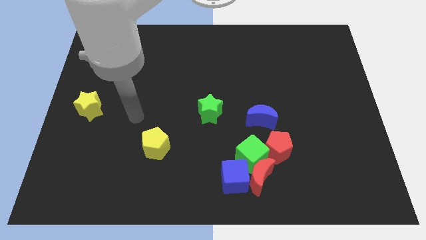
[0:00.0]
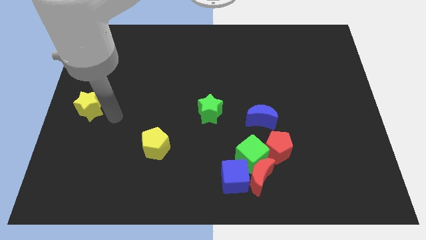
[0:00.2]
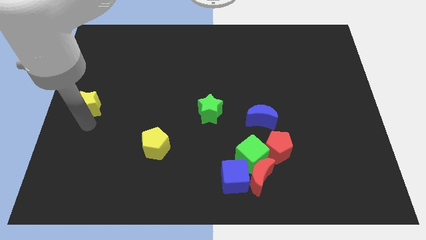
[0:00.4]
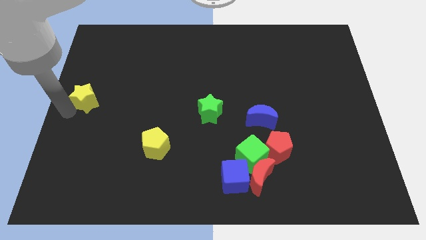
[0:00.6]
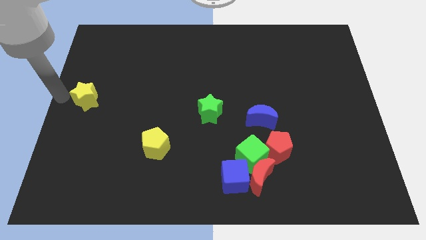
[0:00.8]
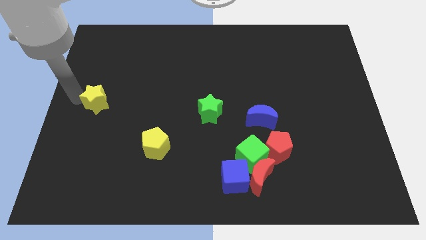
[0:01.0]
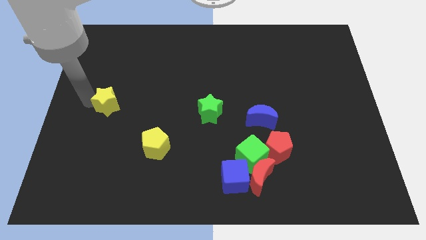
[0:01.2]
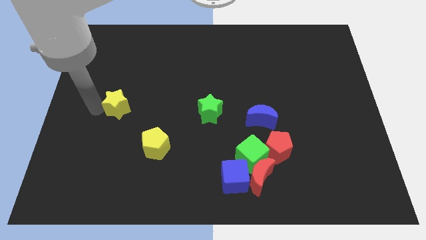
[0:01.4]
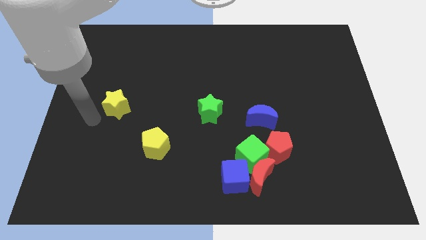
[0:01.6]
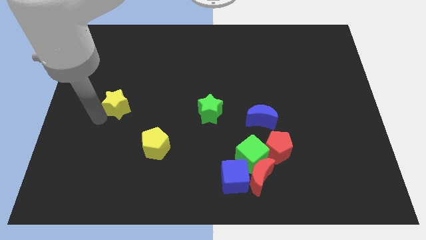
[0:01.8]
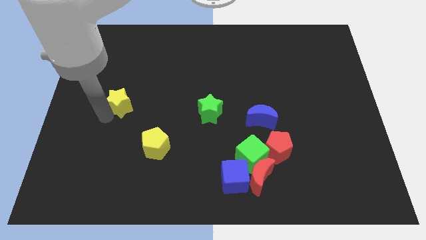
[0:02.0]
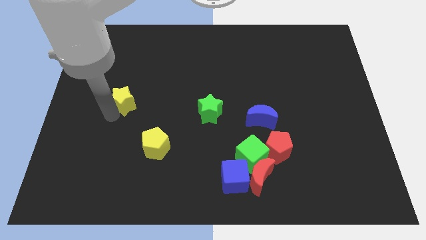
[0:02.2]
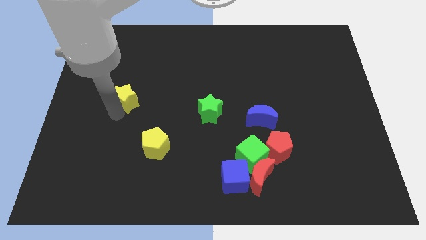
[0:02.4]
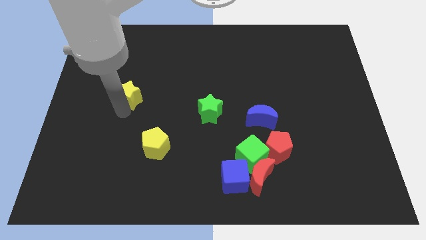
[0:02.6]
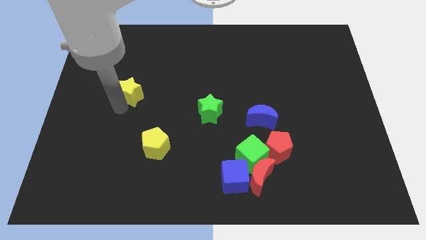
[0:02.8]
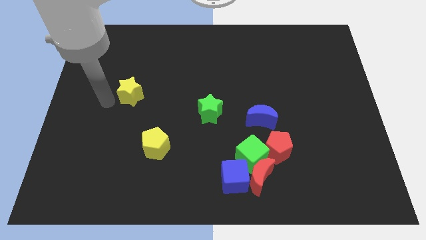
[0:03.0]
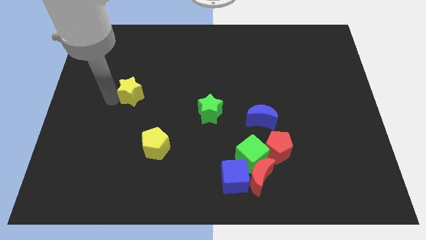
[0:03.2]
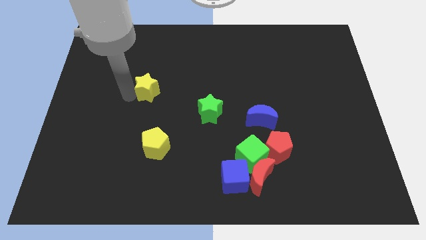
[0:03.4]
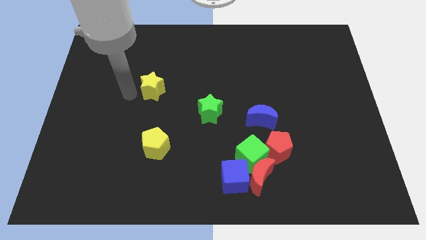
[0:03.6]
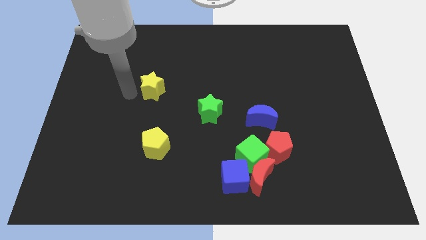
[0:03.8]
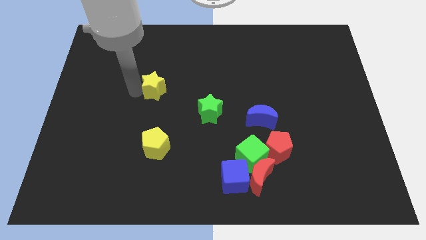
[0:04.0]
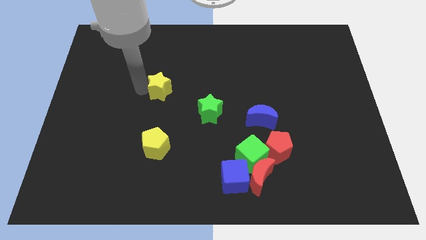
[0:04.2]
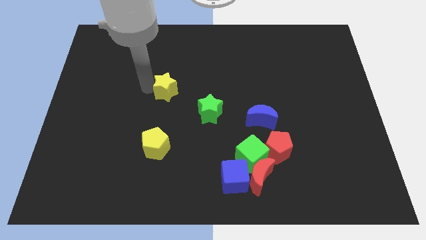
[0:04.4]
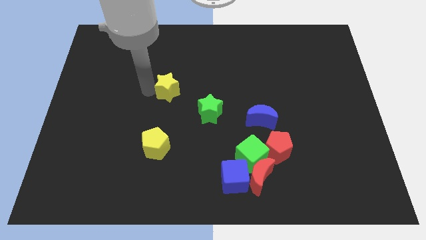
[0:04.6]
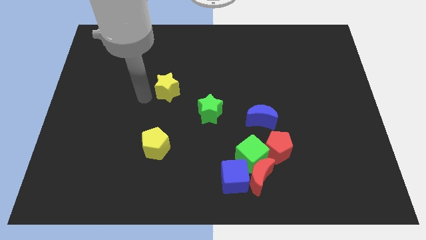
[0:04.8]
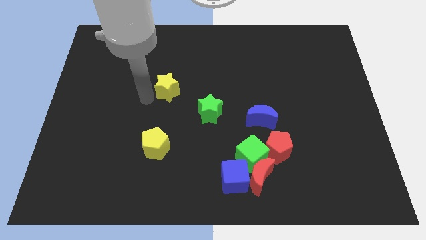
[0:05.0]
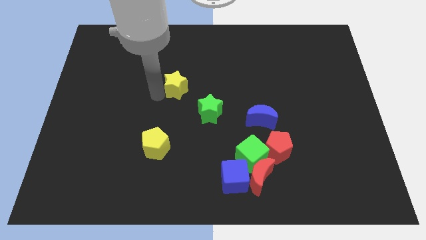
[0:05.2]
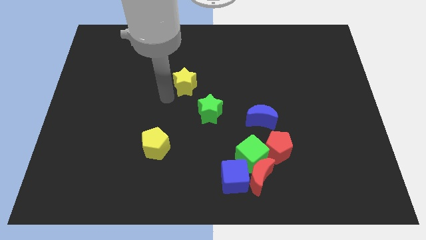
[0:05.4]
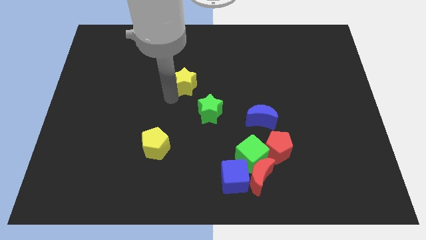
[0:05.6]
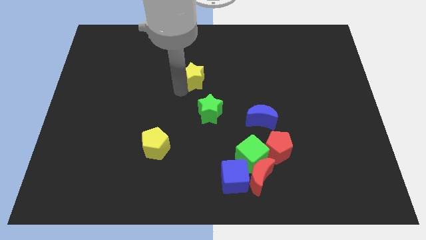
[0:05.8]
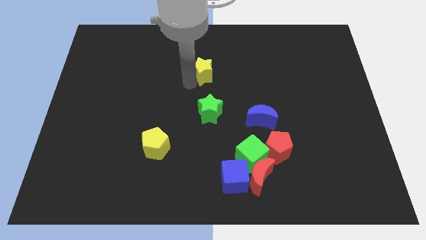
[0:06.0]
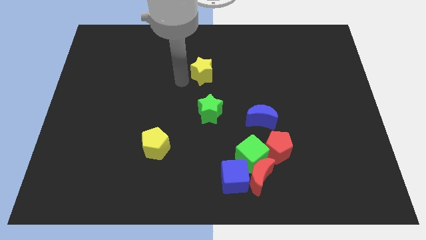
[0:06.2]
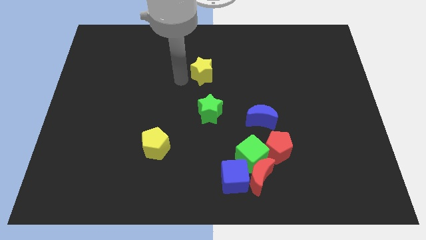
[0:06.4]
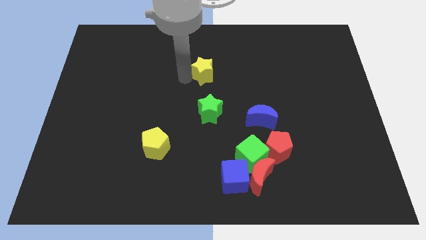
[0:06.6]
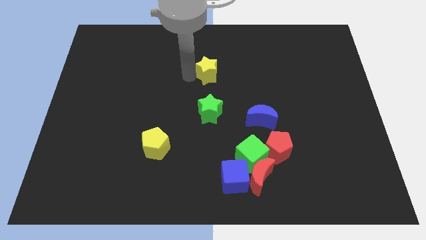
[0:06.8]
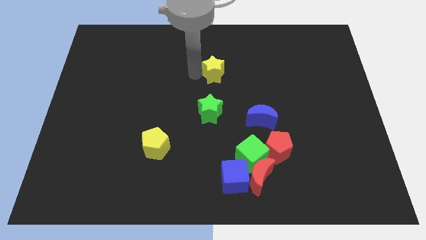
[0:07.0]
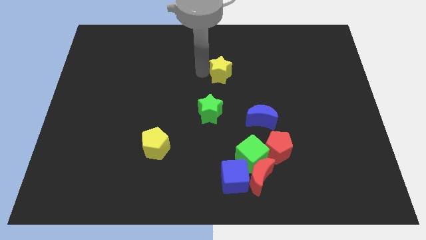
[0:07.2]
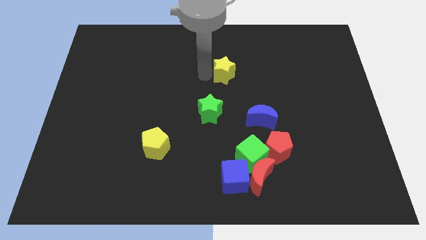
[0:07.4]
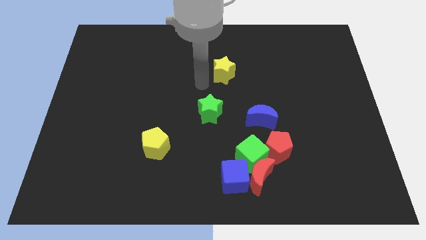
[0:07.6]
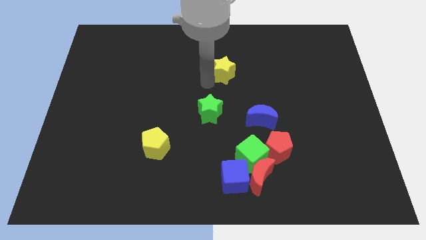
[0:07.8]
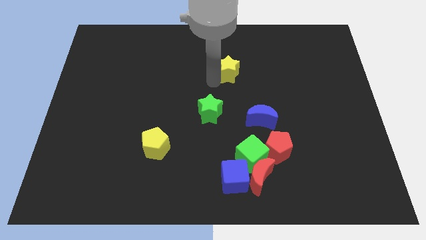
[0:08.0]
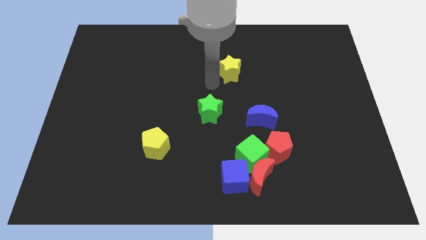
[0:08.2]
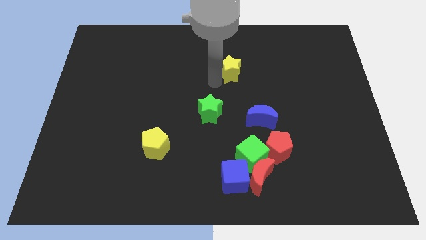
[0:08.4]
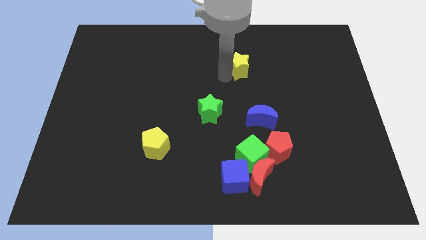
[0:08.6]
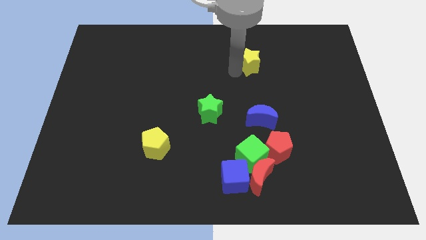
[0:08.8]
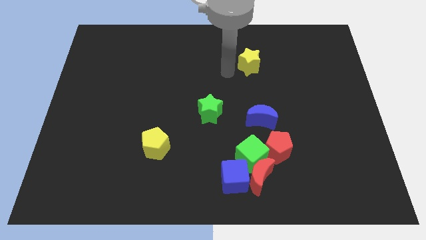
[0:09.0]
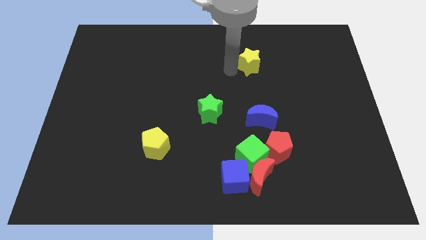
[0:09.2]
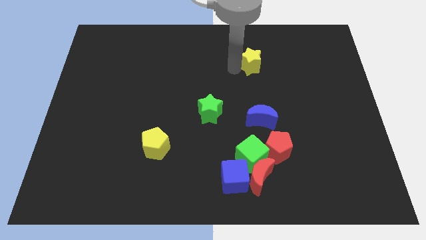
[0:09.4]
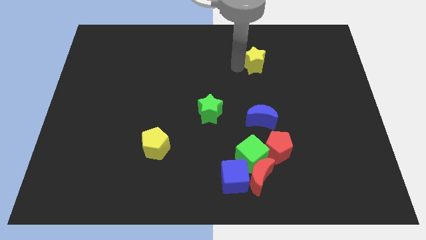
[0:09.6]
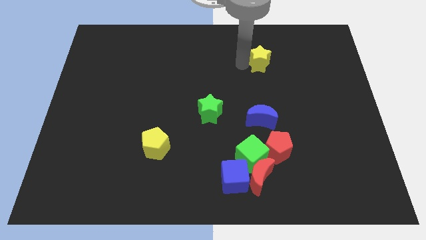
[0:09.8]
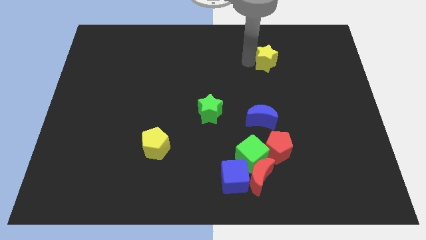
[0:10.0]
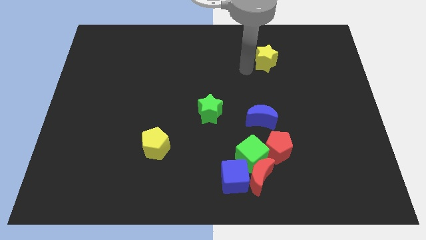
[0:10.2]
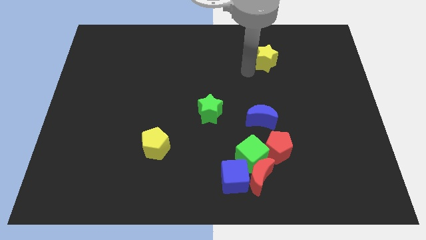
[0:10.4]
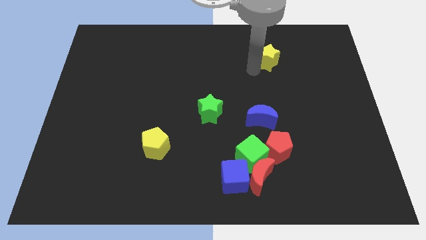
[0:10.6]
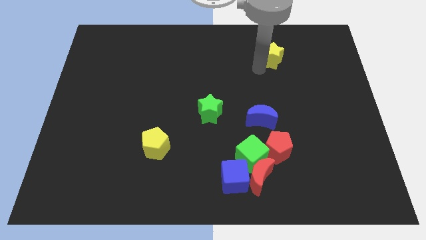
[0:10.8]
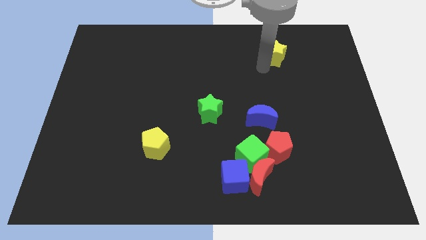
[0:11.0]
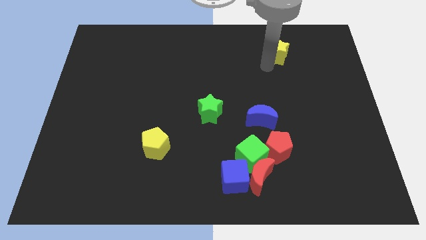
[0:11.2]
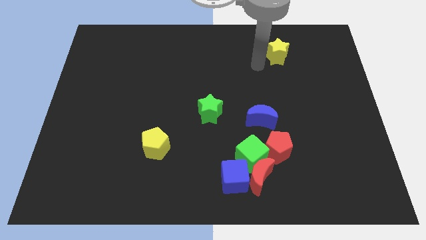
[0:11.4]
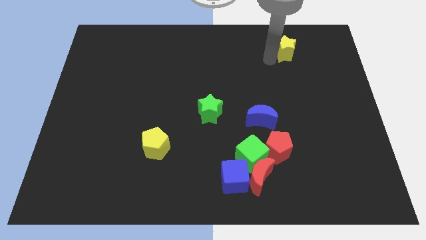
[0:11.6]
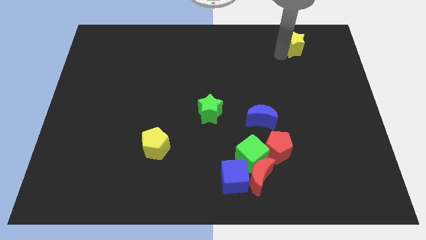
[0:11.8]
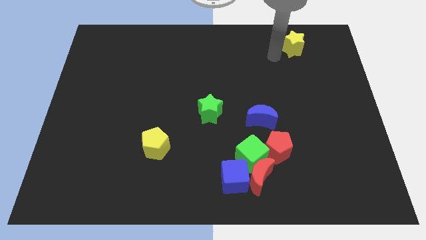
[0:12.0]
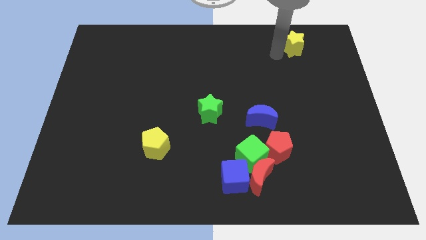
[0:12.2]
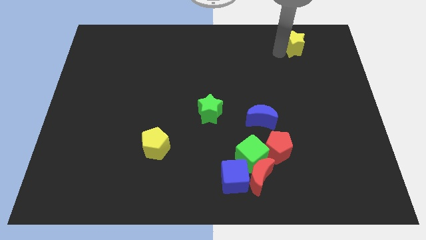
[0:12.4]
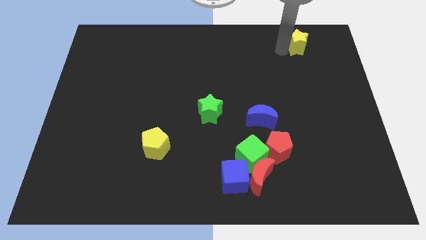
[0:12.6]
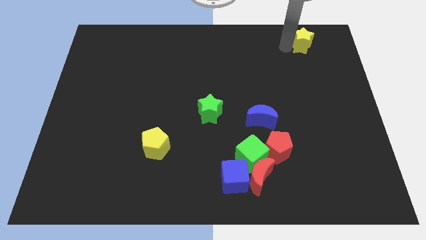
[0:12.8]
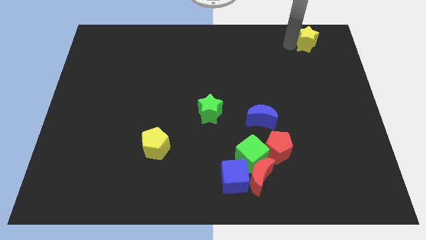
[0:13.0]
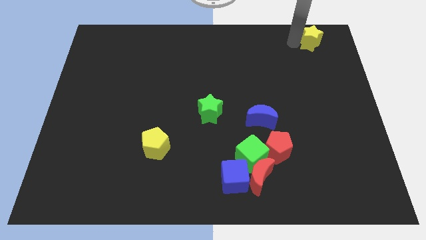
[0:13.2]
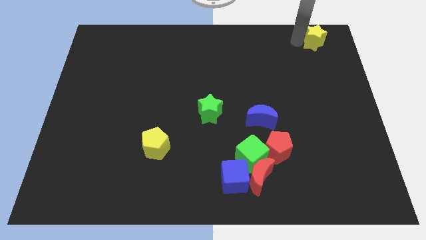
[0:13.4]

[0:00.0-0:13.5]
push the yellow star to the upper right corner
